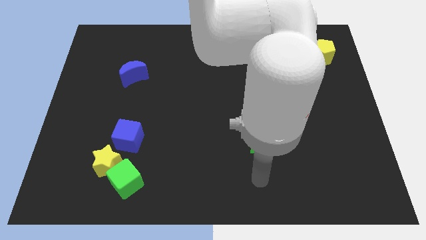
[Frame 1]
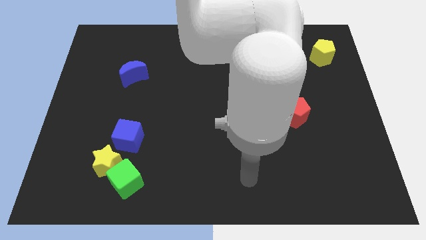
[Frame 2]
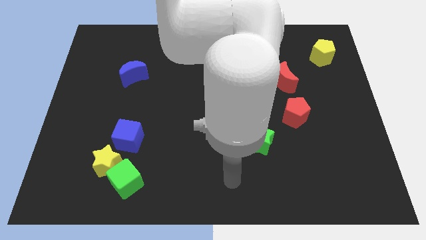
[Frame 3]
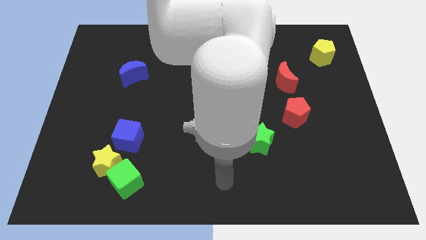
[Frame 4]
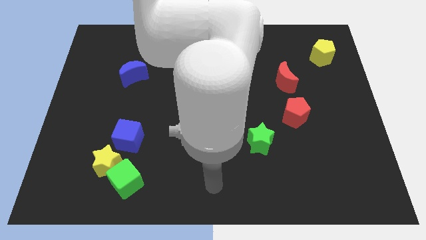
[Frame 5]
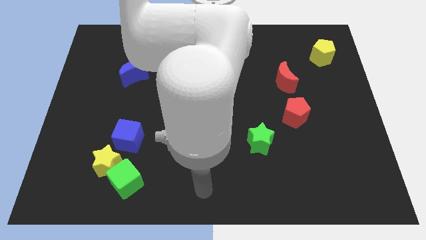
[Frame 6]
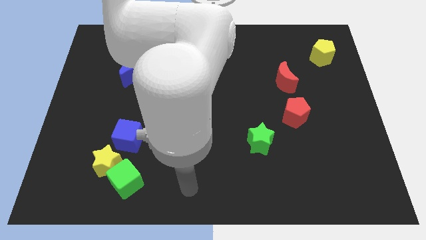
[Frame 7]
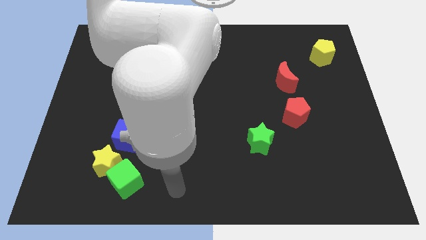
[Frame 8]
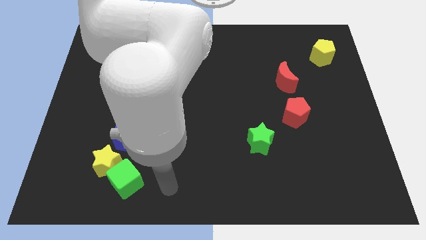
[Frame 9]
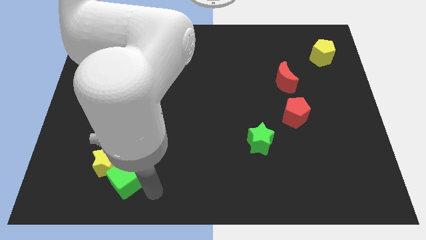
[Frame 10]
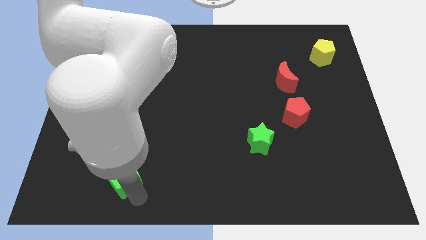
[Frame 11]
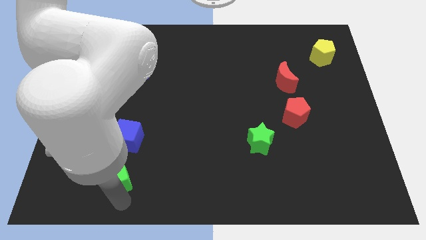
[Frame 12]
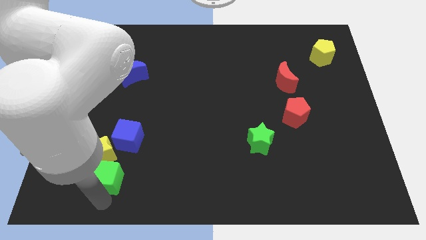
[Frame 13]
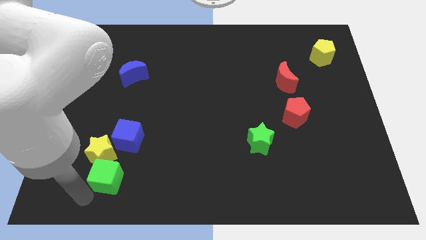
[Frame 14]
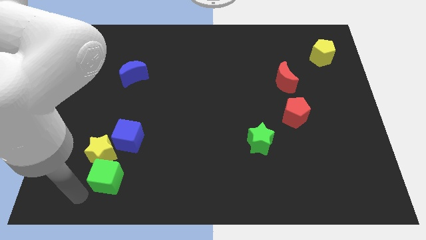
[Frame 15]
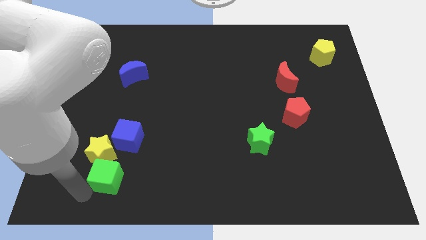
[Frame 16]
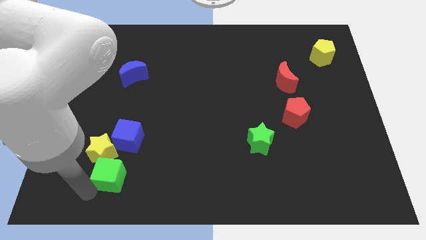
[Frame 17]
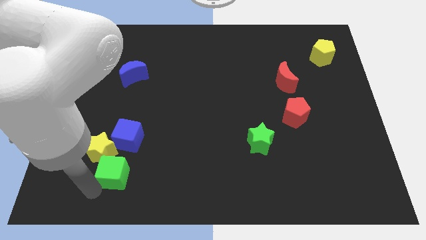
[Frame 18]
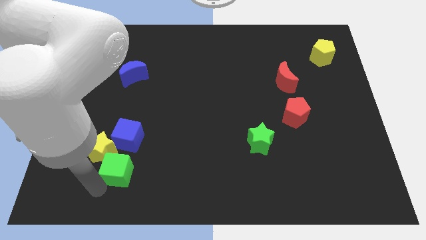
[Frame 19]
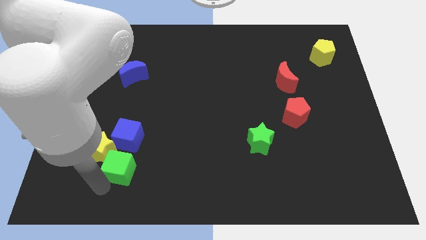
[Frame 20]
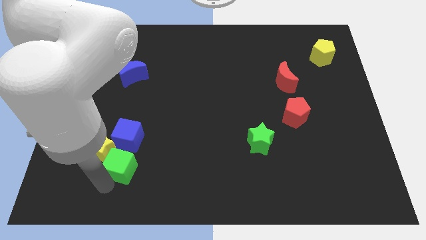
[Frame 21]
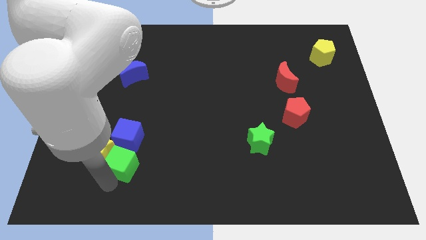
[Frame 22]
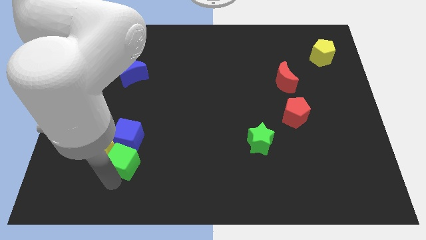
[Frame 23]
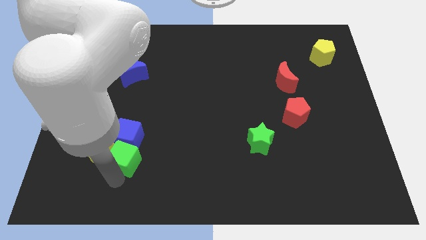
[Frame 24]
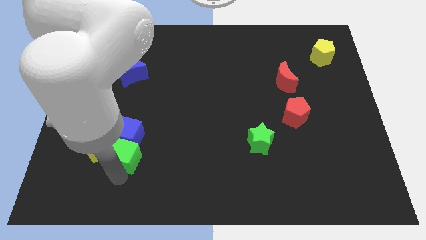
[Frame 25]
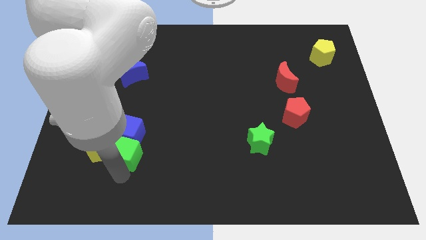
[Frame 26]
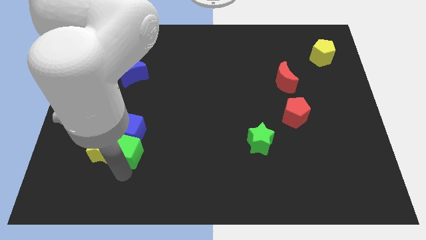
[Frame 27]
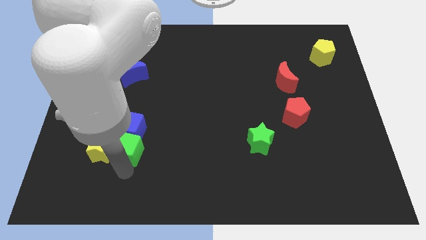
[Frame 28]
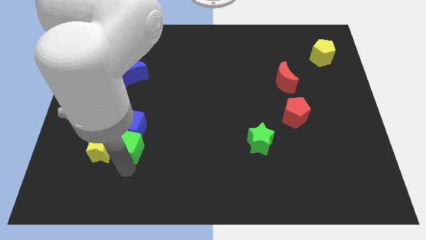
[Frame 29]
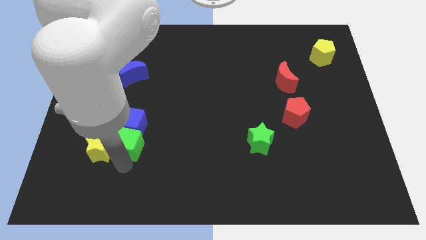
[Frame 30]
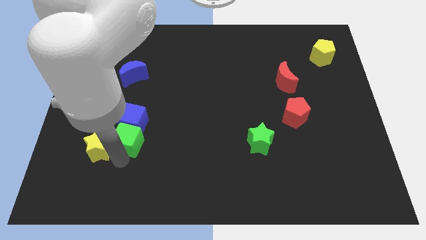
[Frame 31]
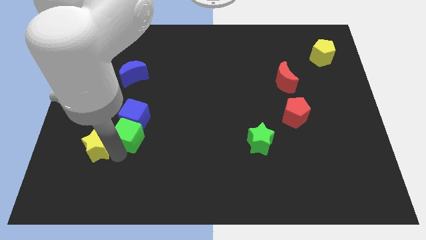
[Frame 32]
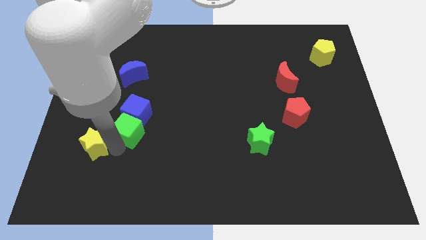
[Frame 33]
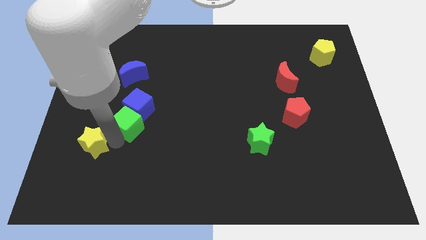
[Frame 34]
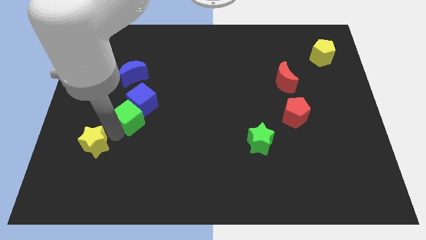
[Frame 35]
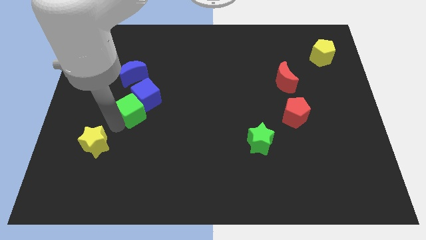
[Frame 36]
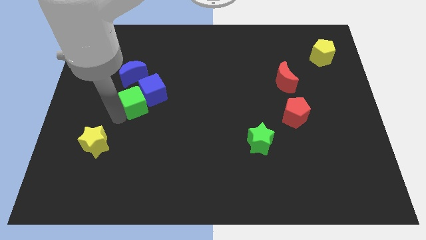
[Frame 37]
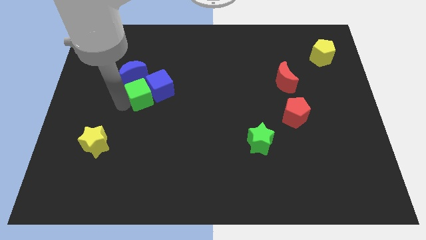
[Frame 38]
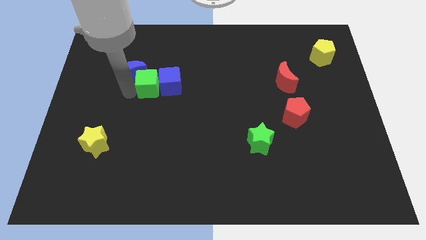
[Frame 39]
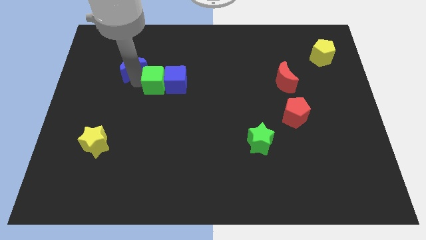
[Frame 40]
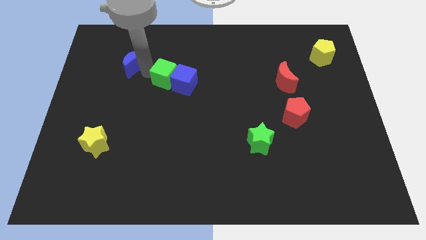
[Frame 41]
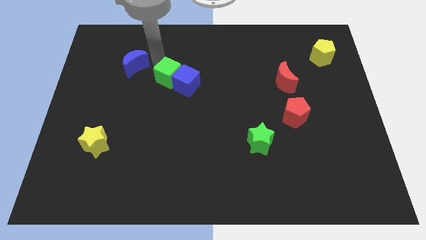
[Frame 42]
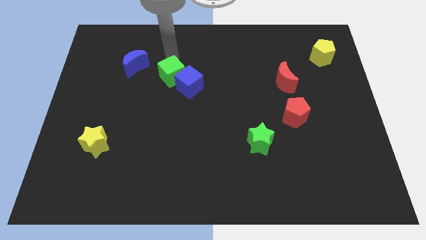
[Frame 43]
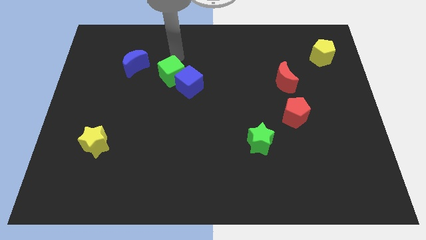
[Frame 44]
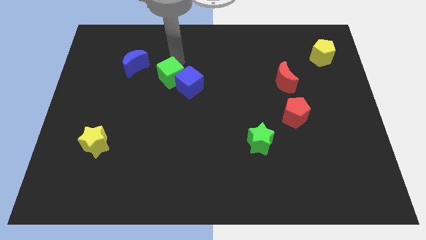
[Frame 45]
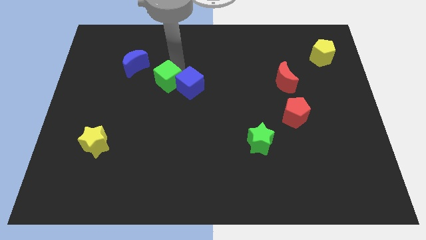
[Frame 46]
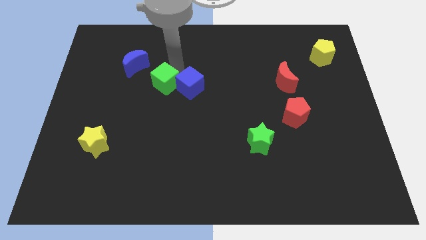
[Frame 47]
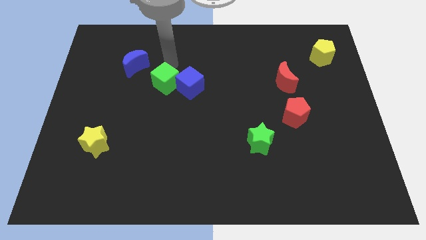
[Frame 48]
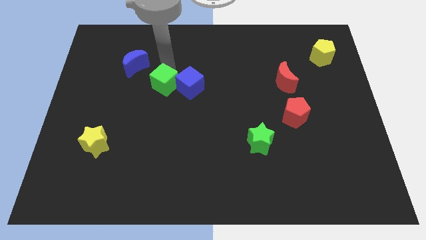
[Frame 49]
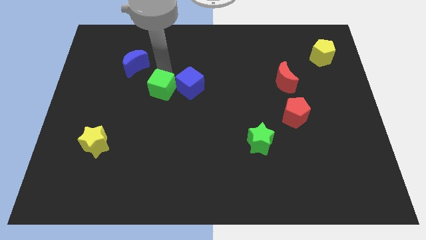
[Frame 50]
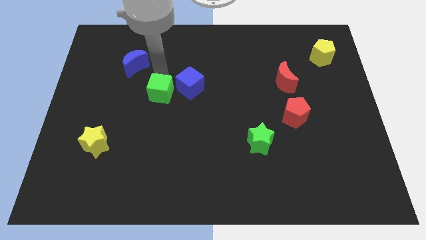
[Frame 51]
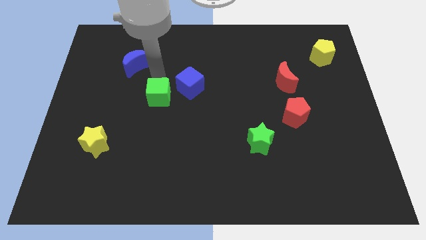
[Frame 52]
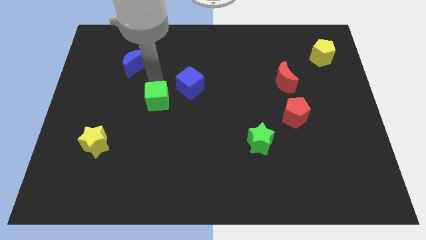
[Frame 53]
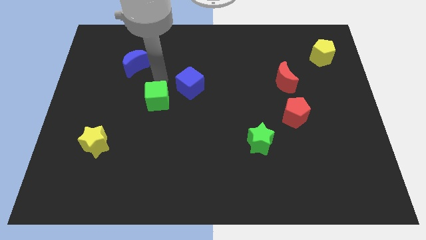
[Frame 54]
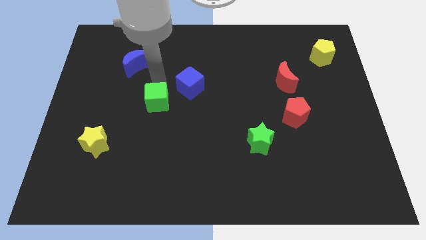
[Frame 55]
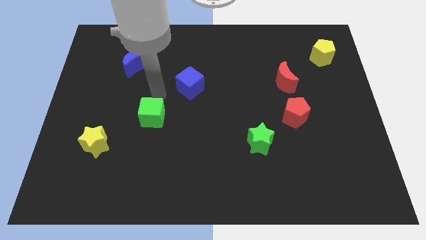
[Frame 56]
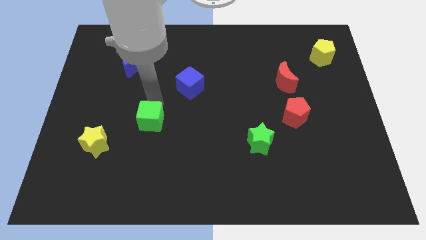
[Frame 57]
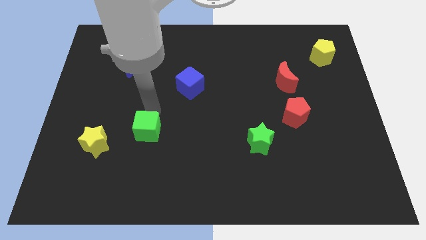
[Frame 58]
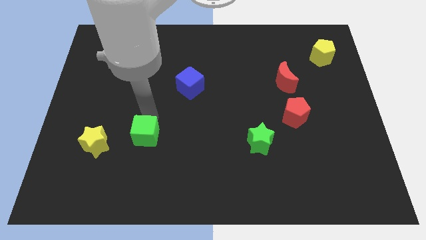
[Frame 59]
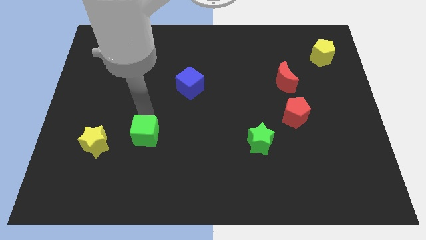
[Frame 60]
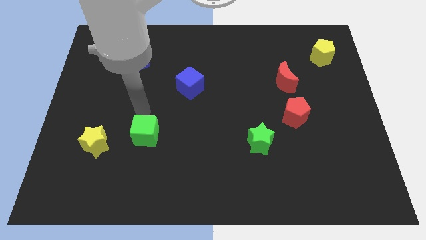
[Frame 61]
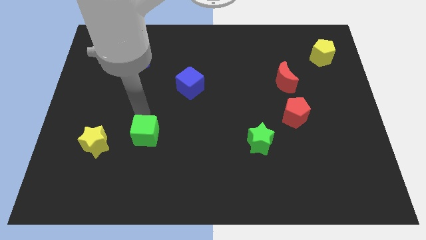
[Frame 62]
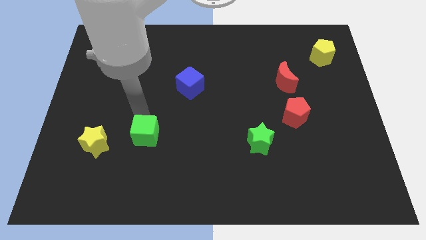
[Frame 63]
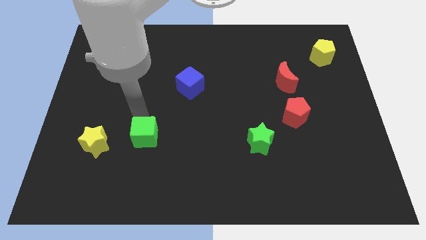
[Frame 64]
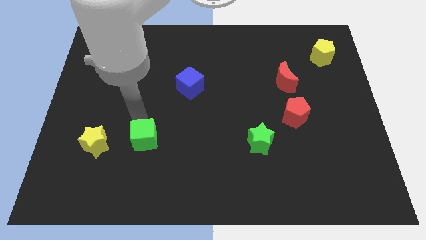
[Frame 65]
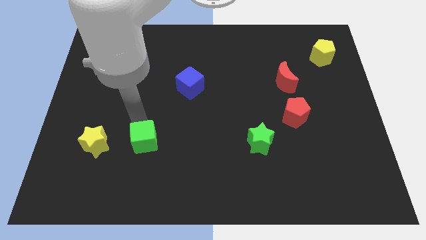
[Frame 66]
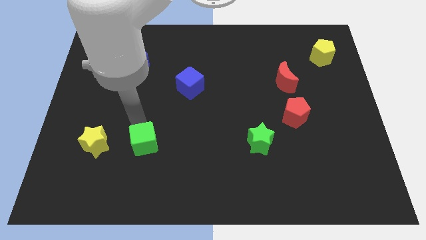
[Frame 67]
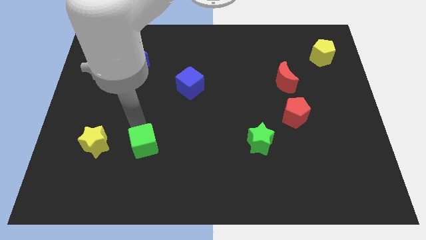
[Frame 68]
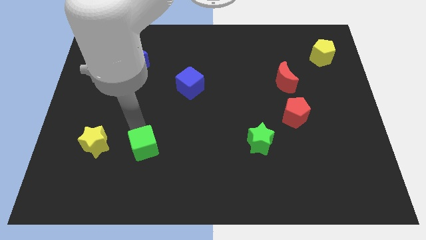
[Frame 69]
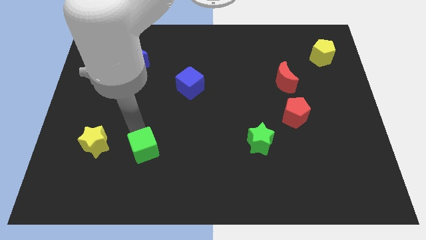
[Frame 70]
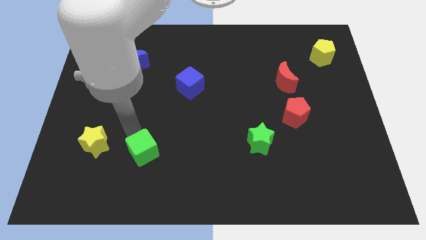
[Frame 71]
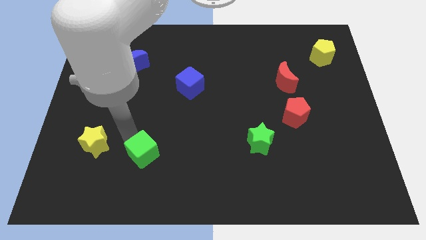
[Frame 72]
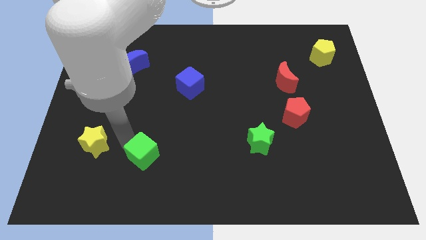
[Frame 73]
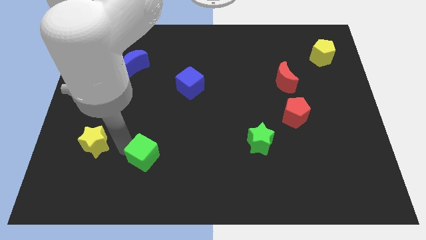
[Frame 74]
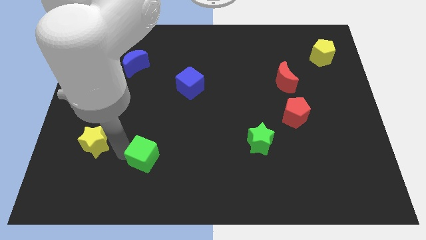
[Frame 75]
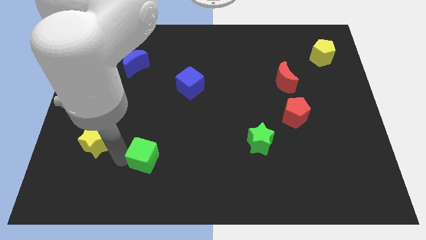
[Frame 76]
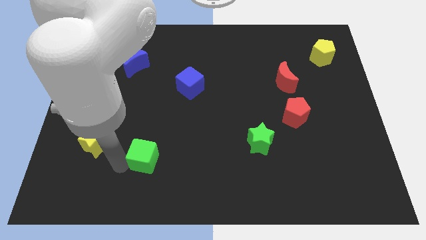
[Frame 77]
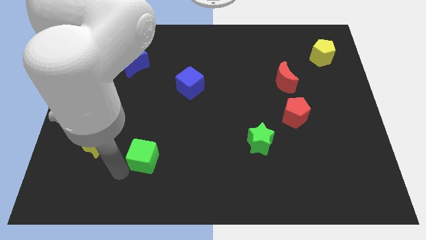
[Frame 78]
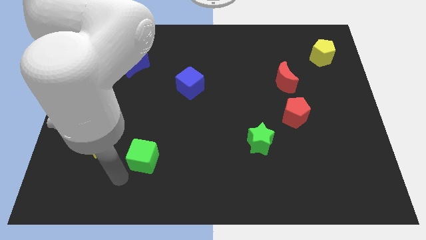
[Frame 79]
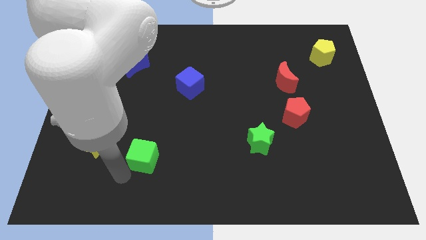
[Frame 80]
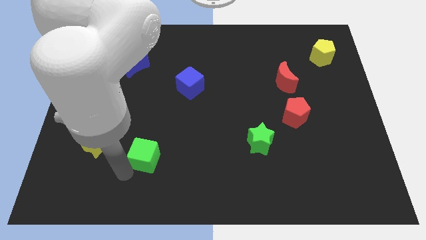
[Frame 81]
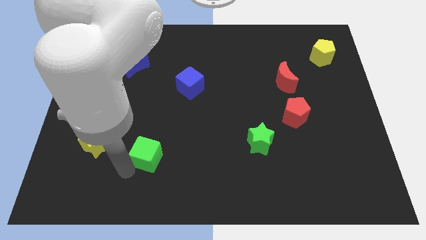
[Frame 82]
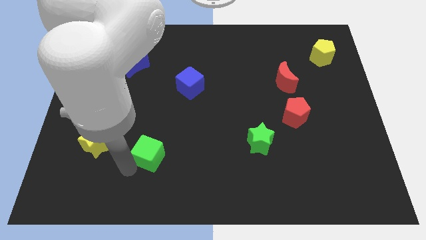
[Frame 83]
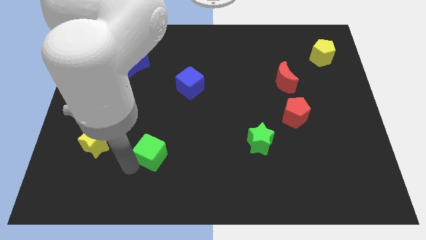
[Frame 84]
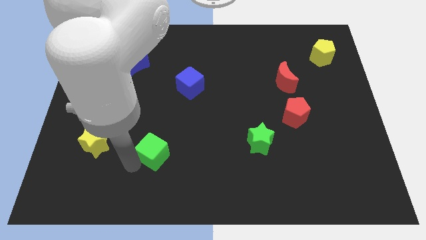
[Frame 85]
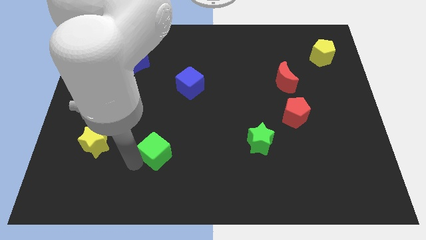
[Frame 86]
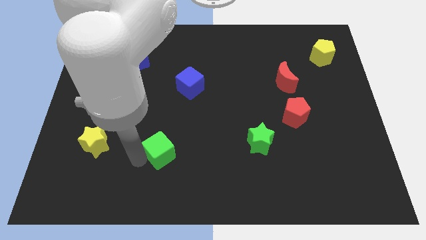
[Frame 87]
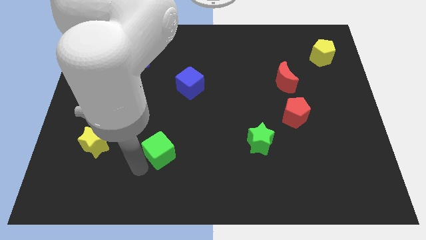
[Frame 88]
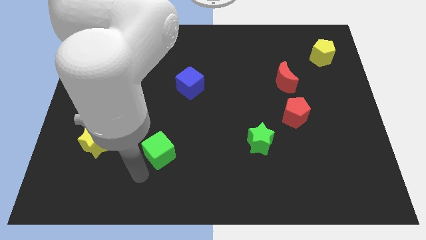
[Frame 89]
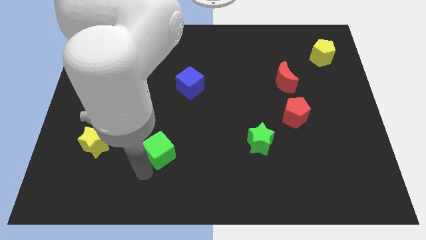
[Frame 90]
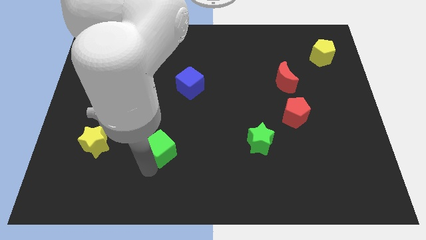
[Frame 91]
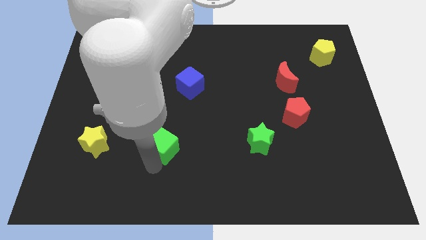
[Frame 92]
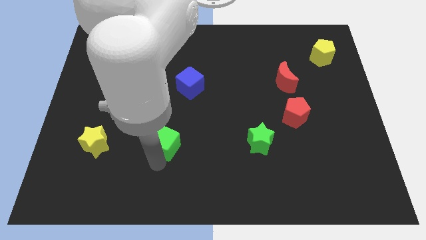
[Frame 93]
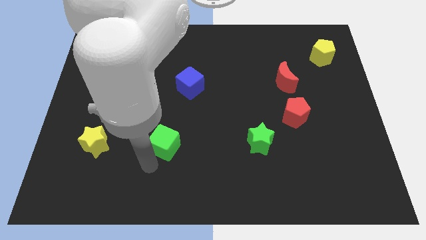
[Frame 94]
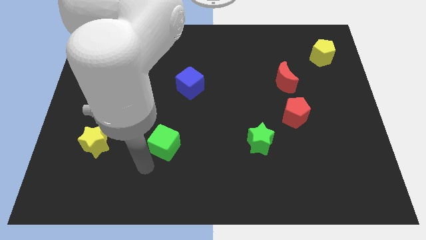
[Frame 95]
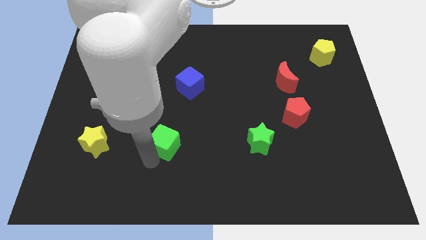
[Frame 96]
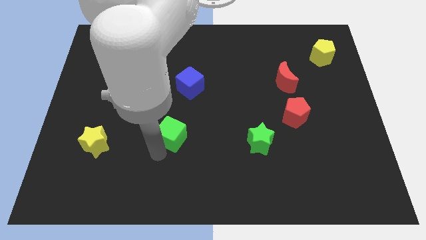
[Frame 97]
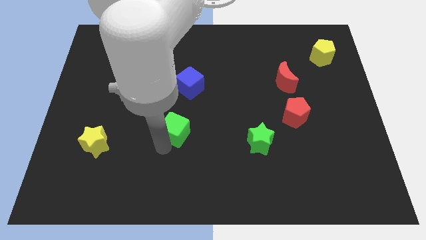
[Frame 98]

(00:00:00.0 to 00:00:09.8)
put the green cube to the middle
